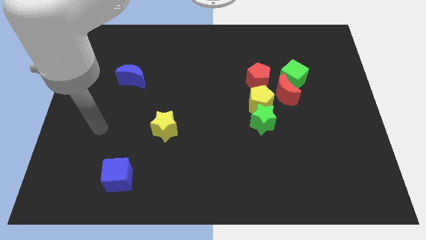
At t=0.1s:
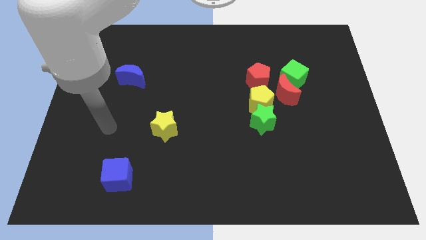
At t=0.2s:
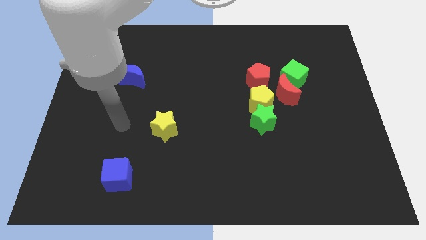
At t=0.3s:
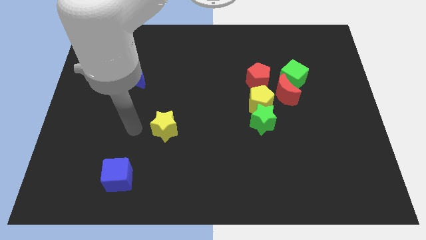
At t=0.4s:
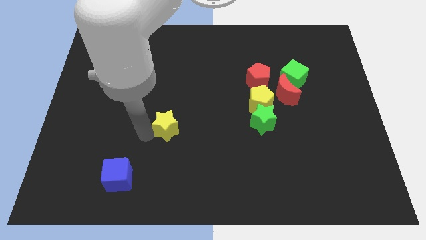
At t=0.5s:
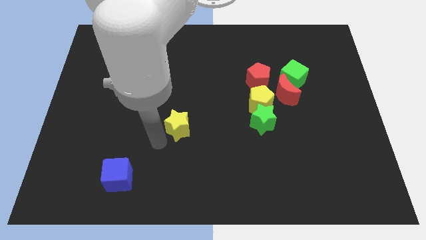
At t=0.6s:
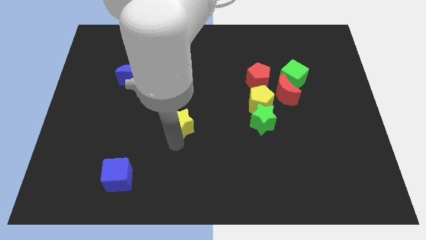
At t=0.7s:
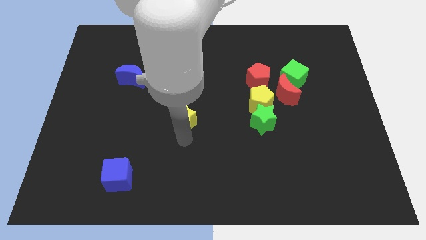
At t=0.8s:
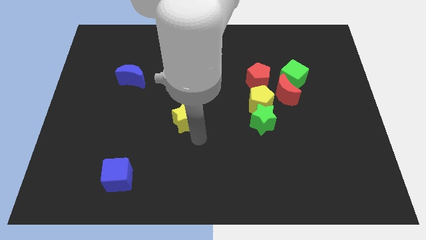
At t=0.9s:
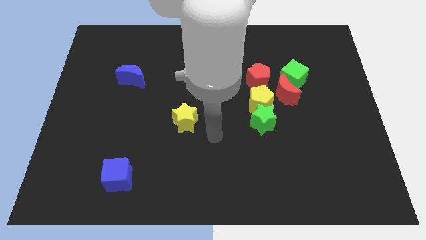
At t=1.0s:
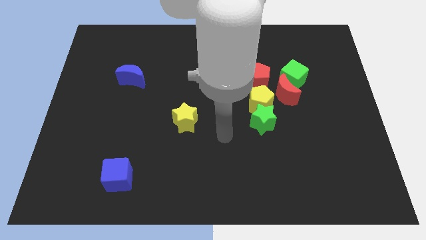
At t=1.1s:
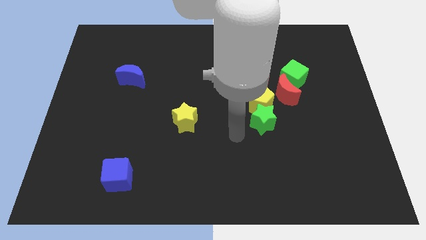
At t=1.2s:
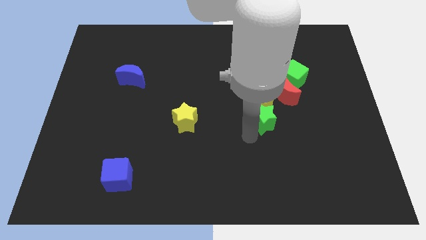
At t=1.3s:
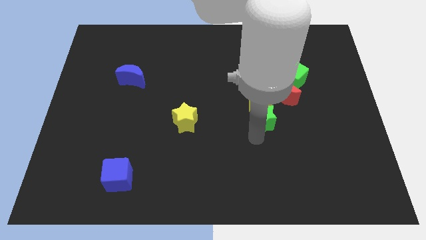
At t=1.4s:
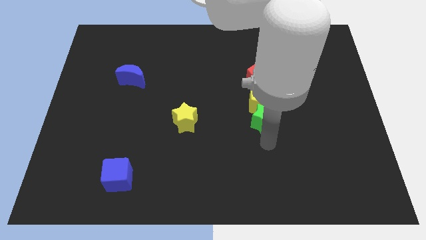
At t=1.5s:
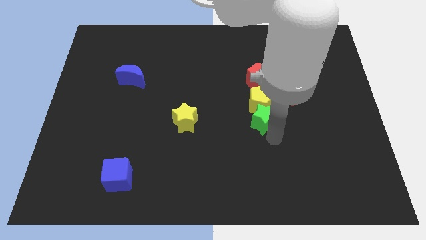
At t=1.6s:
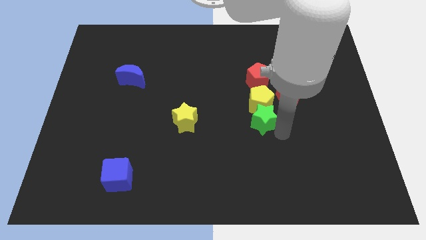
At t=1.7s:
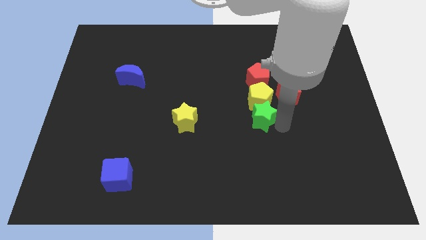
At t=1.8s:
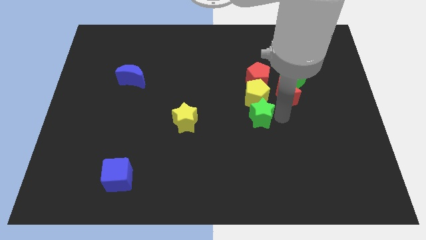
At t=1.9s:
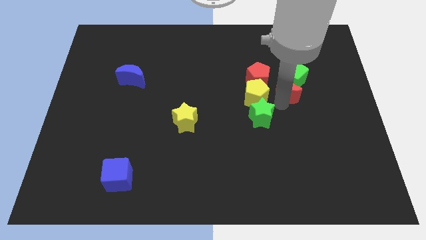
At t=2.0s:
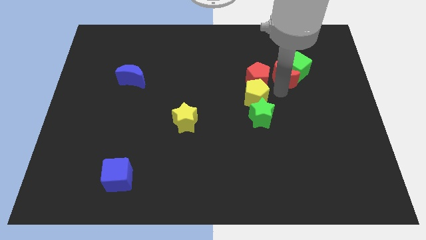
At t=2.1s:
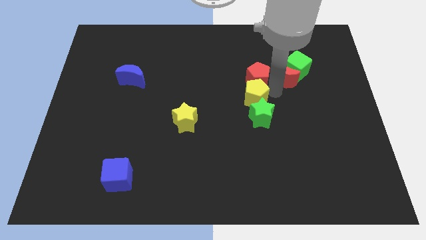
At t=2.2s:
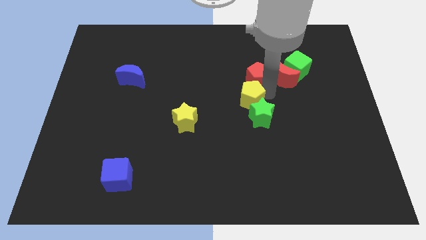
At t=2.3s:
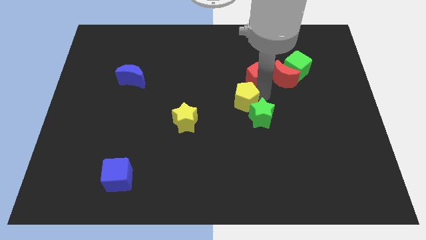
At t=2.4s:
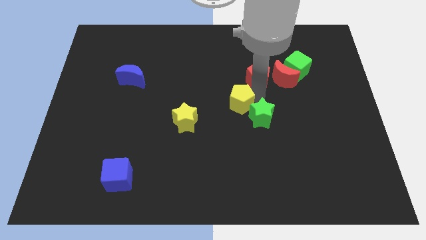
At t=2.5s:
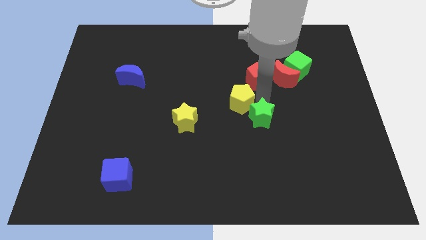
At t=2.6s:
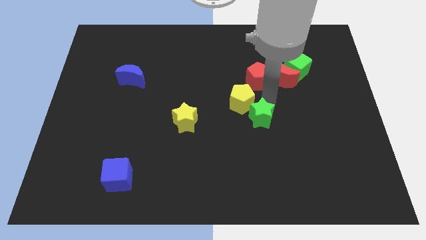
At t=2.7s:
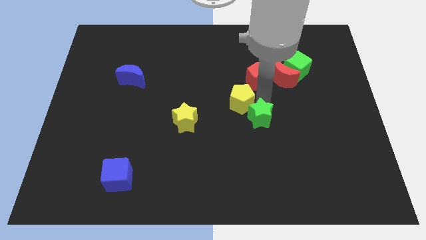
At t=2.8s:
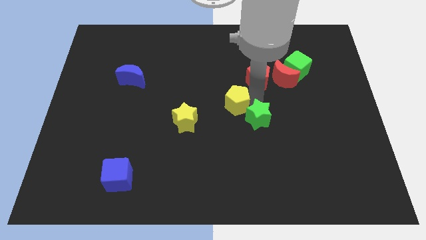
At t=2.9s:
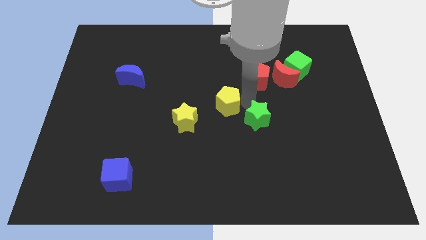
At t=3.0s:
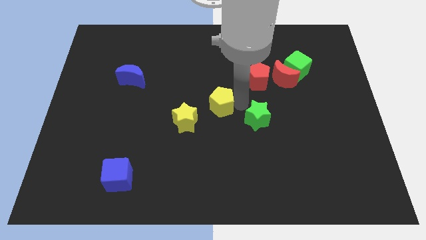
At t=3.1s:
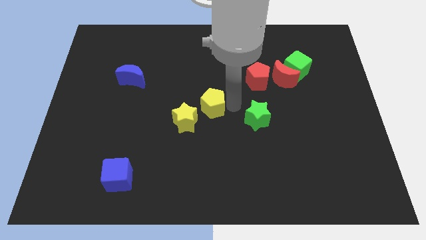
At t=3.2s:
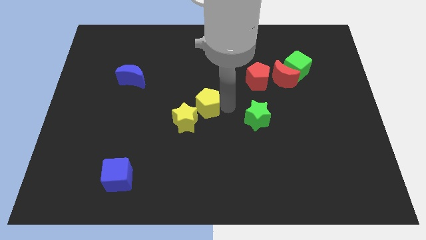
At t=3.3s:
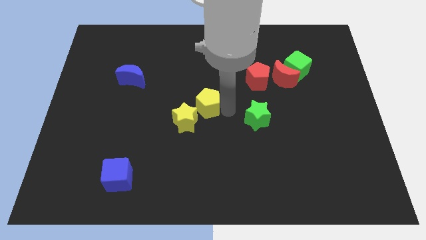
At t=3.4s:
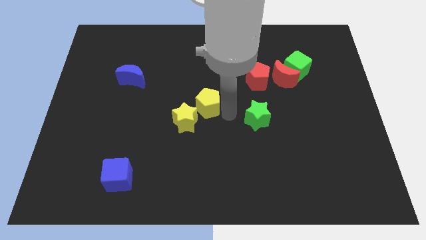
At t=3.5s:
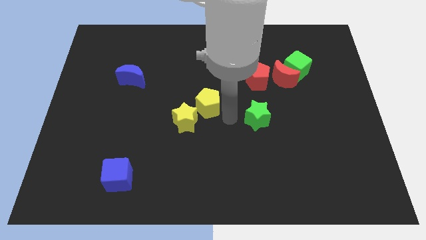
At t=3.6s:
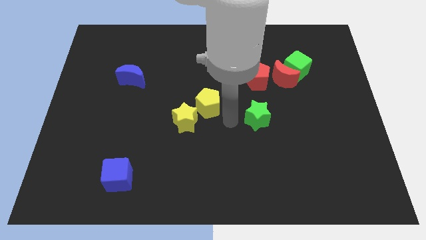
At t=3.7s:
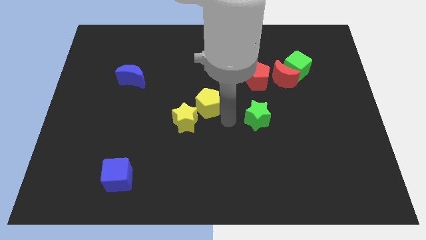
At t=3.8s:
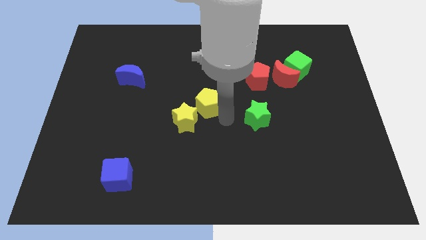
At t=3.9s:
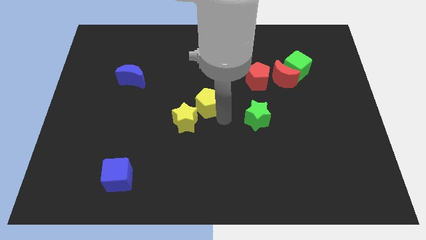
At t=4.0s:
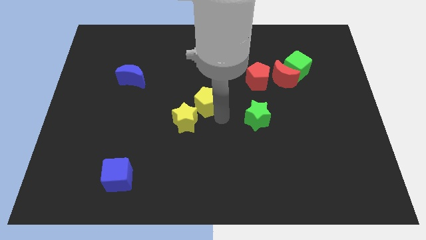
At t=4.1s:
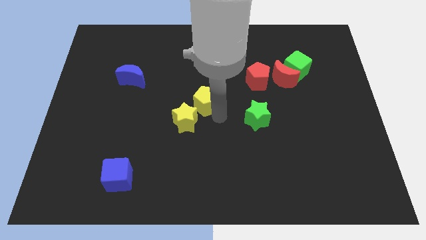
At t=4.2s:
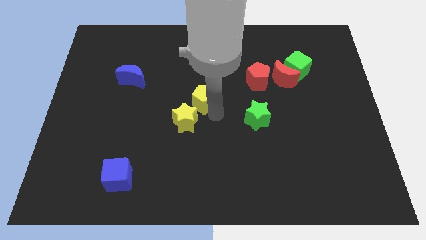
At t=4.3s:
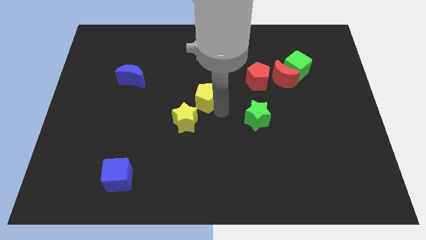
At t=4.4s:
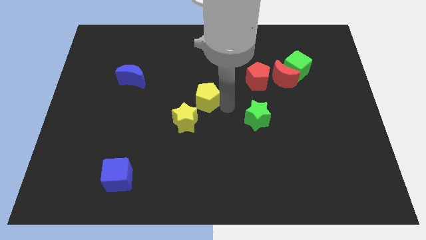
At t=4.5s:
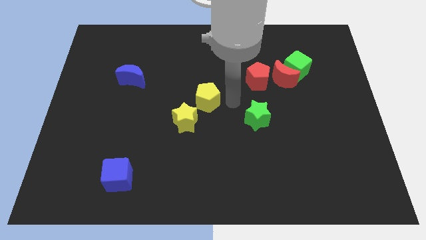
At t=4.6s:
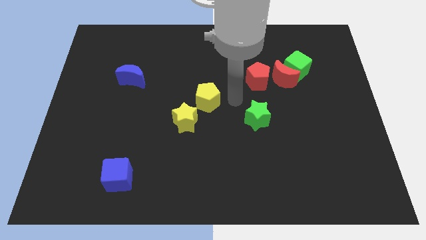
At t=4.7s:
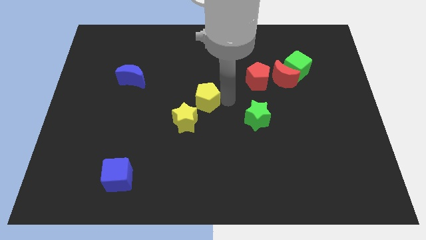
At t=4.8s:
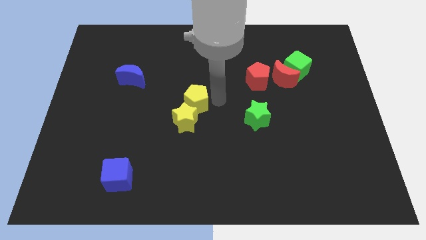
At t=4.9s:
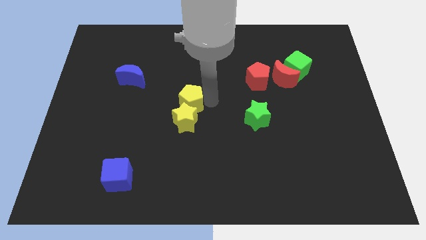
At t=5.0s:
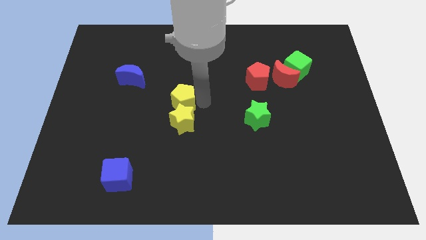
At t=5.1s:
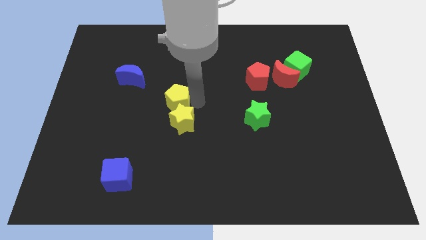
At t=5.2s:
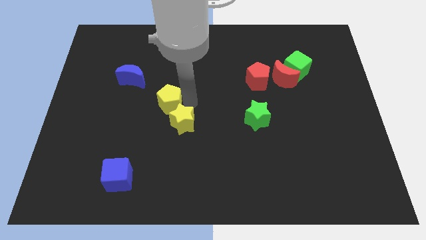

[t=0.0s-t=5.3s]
slide the yellow pentagon left

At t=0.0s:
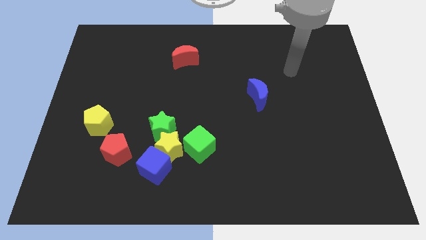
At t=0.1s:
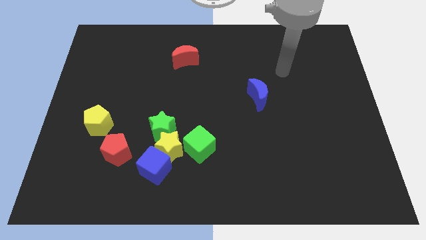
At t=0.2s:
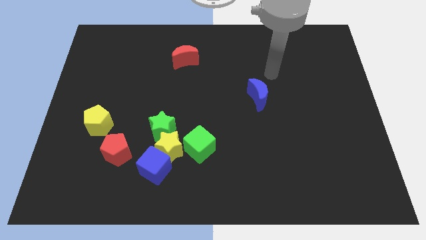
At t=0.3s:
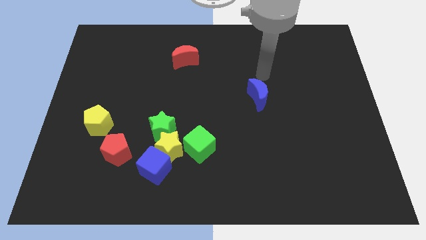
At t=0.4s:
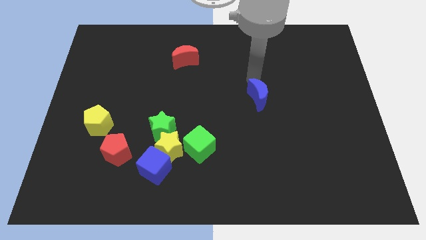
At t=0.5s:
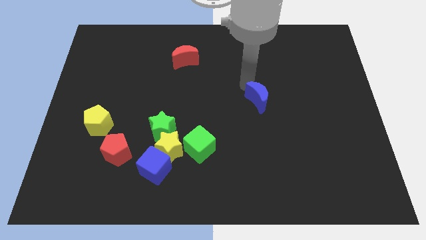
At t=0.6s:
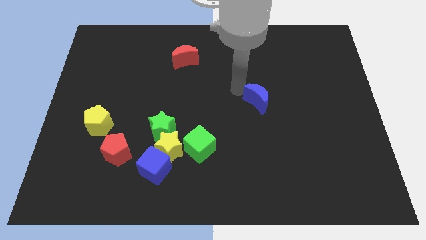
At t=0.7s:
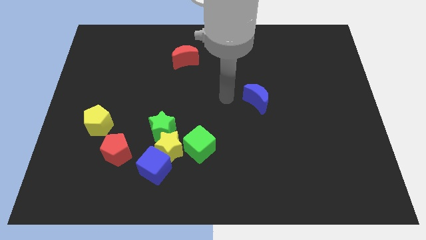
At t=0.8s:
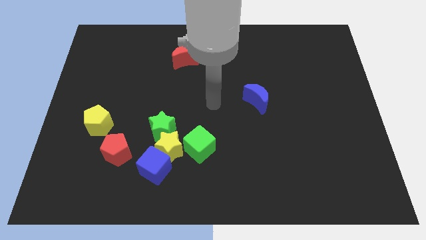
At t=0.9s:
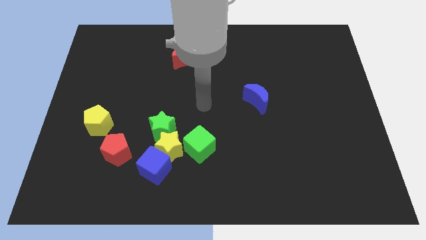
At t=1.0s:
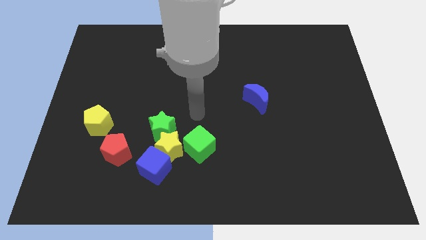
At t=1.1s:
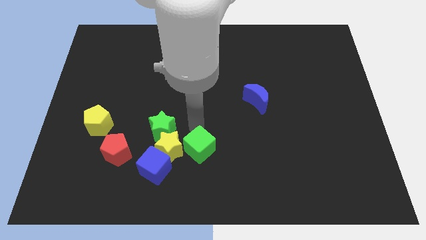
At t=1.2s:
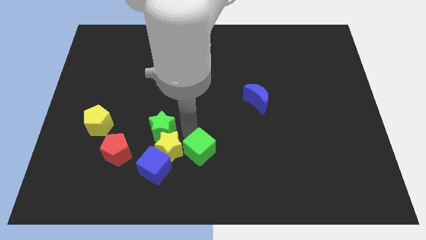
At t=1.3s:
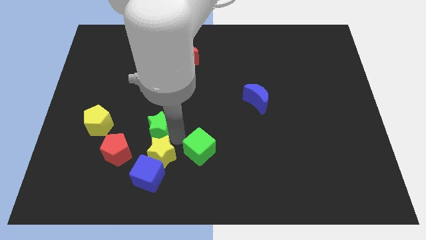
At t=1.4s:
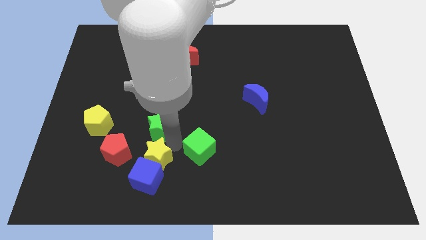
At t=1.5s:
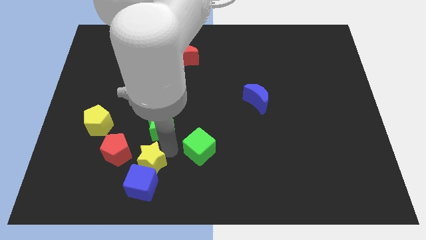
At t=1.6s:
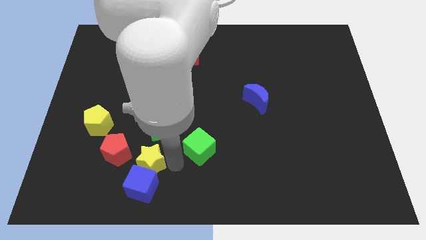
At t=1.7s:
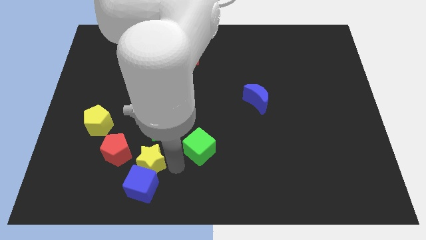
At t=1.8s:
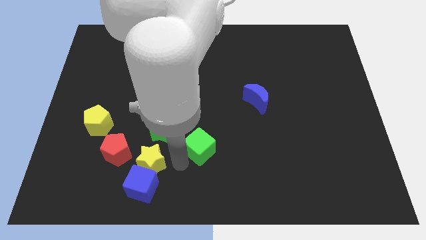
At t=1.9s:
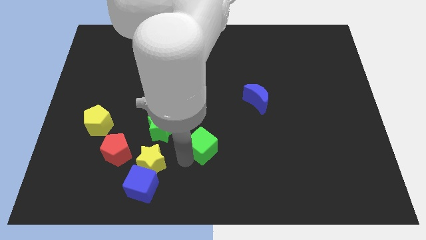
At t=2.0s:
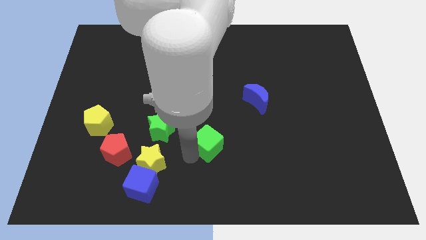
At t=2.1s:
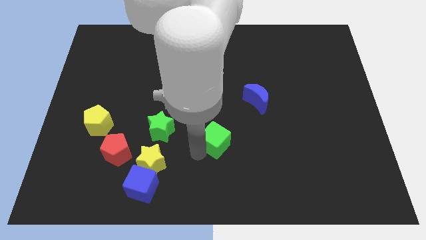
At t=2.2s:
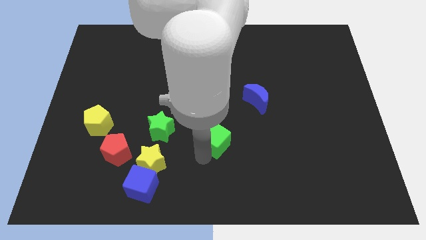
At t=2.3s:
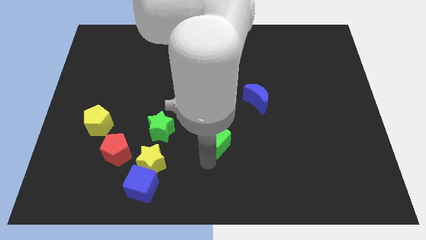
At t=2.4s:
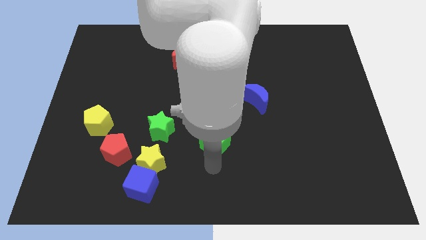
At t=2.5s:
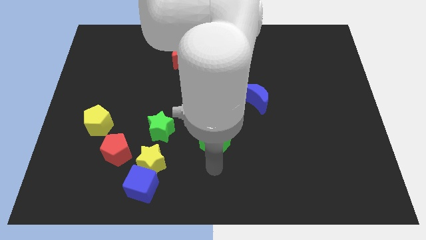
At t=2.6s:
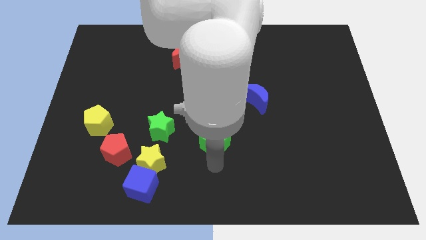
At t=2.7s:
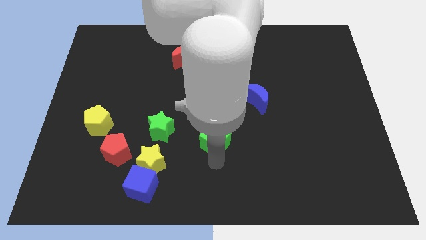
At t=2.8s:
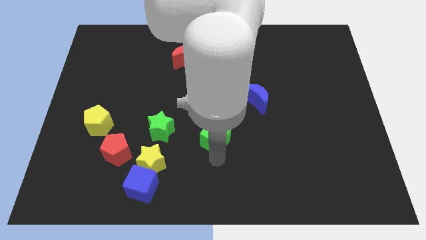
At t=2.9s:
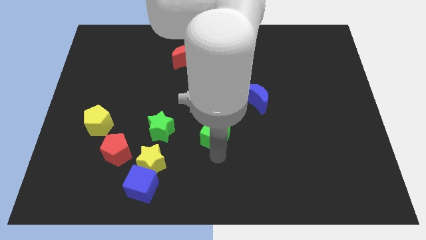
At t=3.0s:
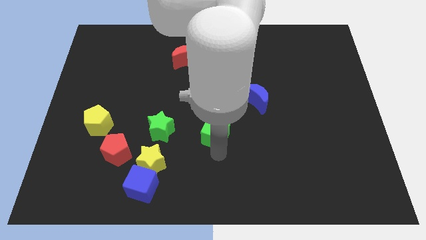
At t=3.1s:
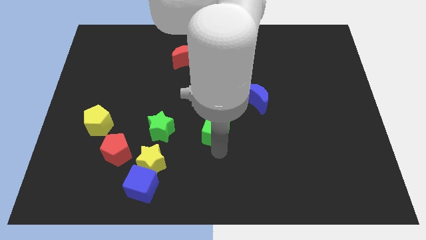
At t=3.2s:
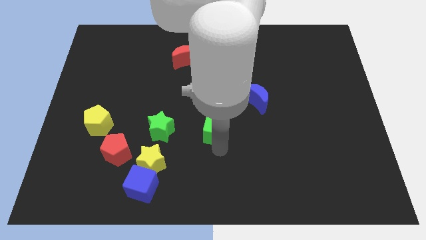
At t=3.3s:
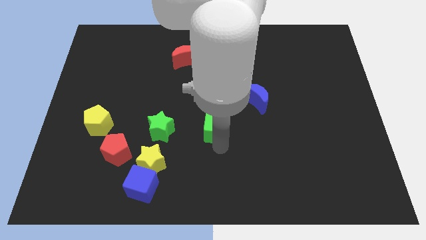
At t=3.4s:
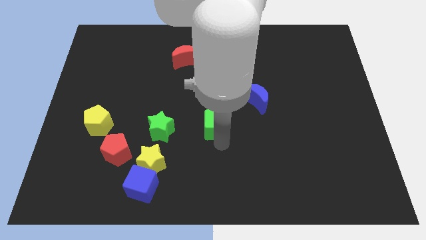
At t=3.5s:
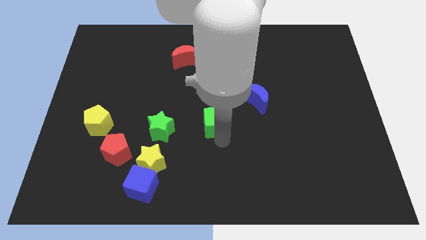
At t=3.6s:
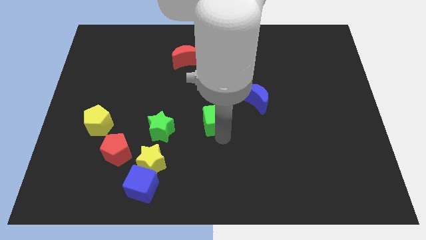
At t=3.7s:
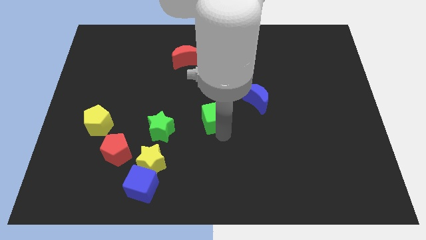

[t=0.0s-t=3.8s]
slightly slide the green cube up
